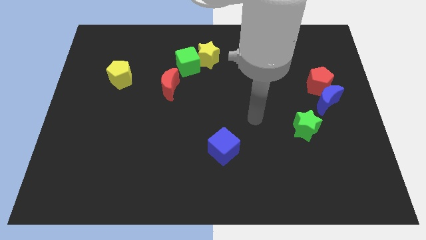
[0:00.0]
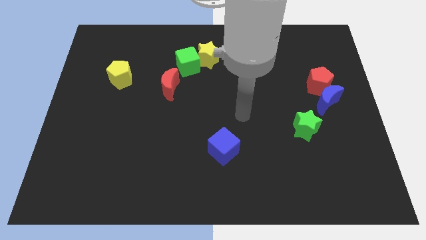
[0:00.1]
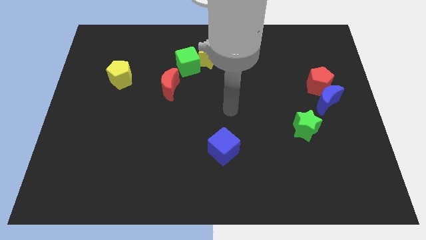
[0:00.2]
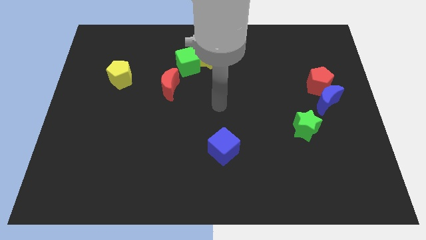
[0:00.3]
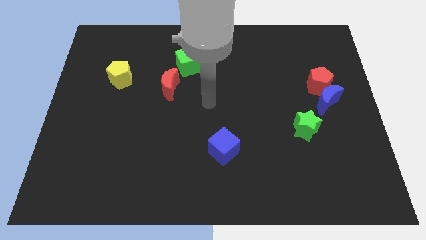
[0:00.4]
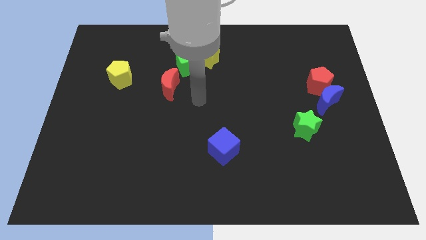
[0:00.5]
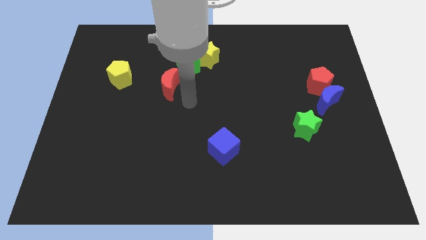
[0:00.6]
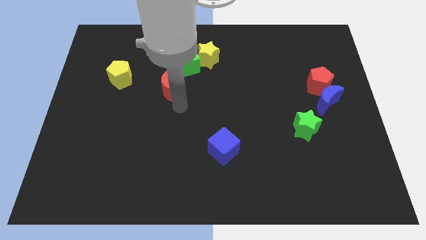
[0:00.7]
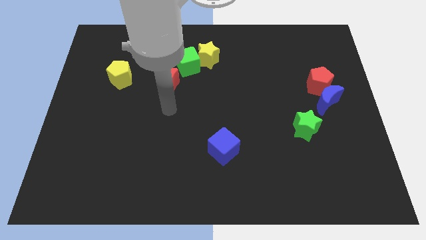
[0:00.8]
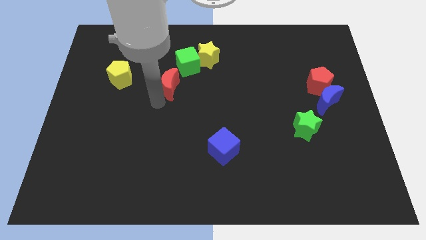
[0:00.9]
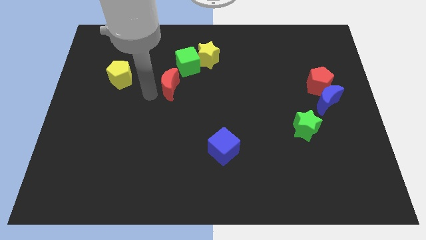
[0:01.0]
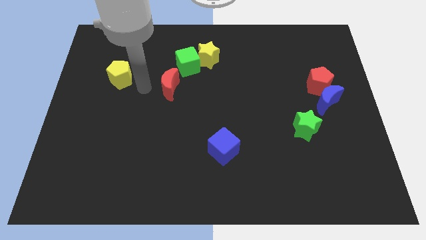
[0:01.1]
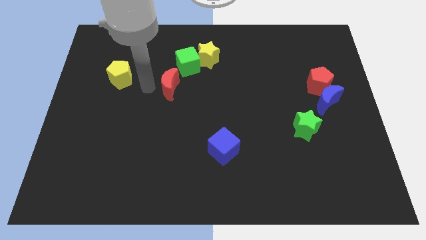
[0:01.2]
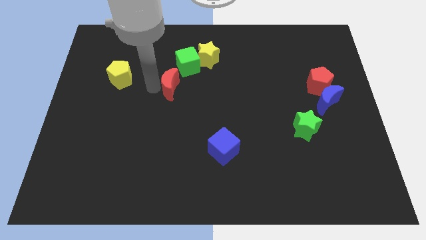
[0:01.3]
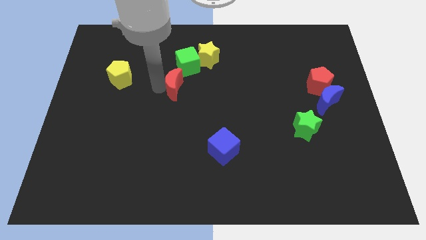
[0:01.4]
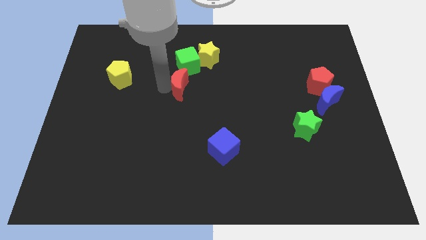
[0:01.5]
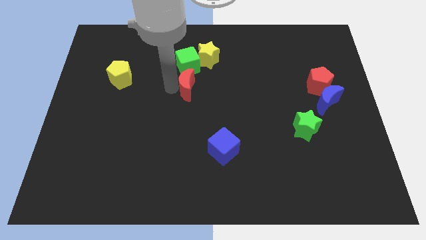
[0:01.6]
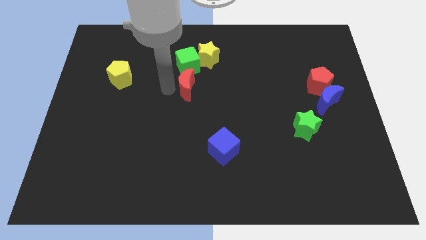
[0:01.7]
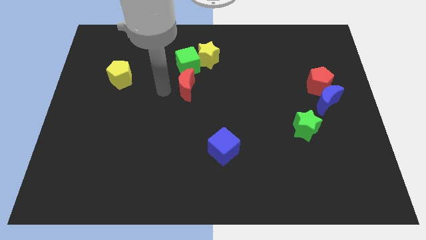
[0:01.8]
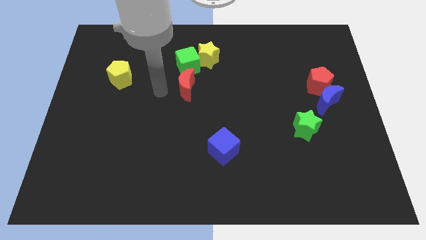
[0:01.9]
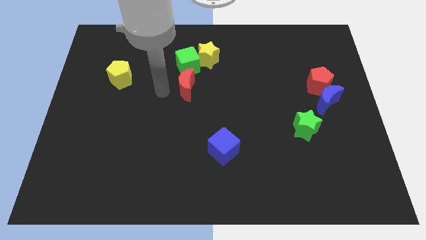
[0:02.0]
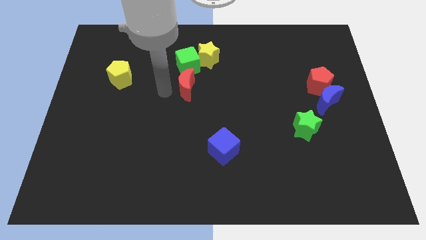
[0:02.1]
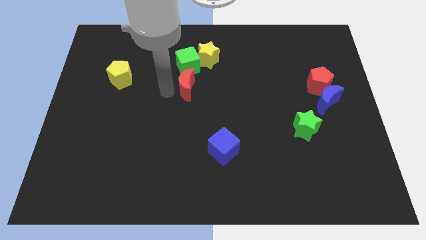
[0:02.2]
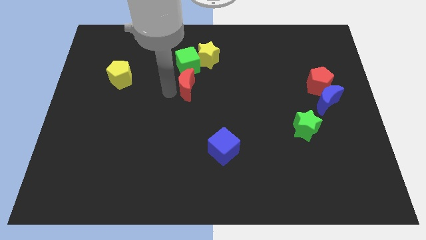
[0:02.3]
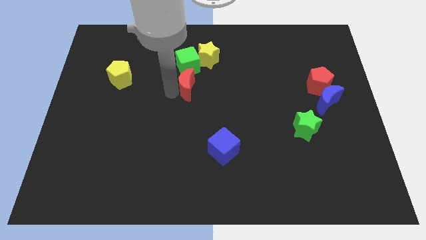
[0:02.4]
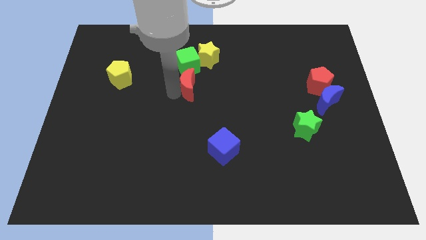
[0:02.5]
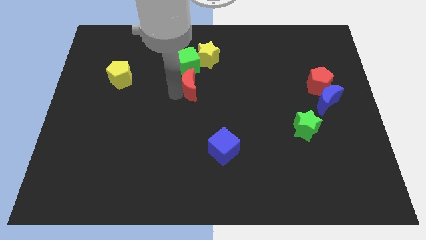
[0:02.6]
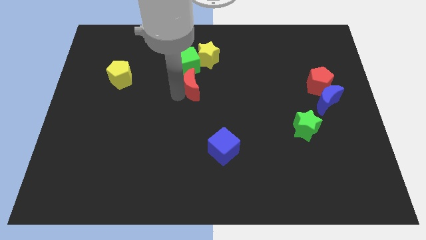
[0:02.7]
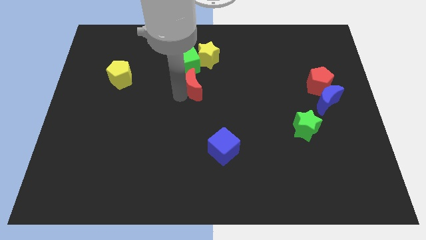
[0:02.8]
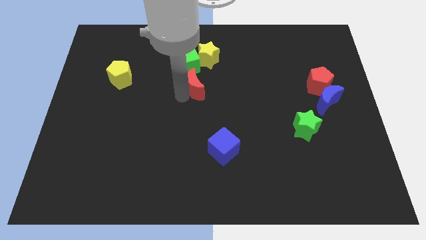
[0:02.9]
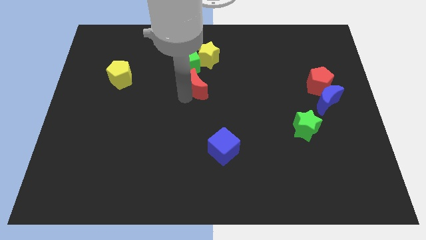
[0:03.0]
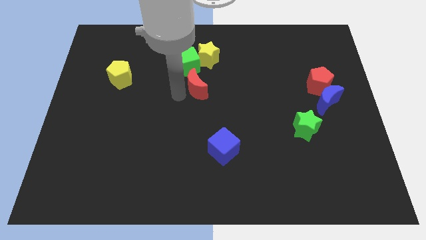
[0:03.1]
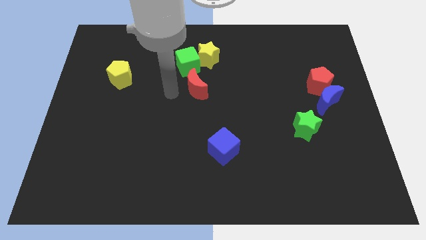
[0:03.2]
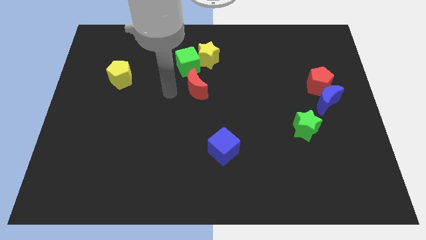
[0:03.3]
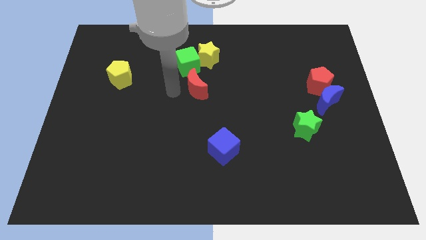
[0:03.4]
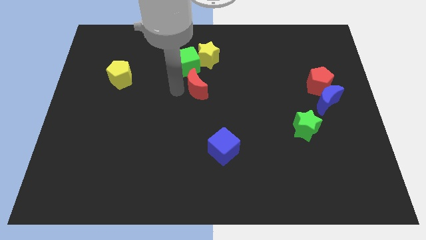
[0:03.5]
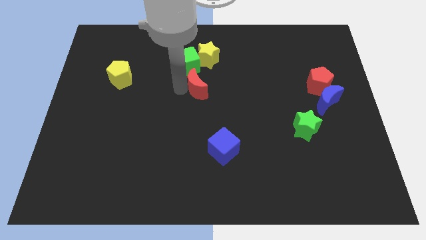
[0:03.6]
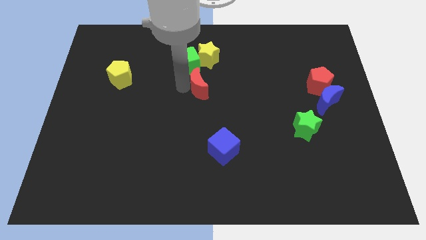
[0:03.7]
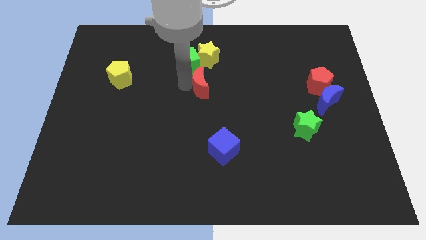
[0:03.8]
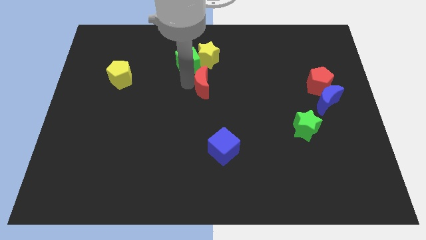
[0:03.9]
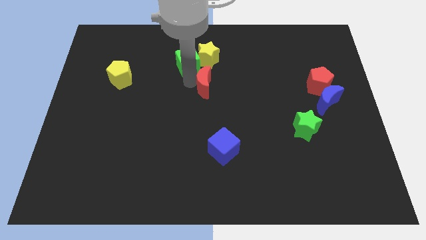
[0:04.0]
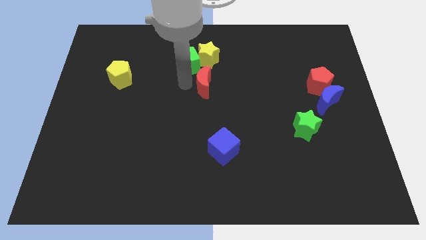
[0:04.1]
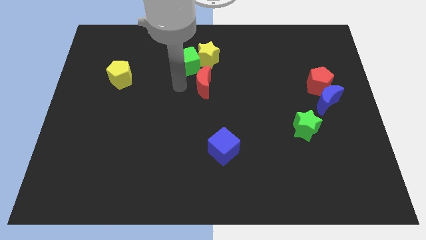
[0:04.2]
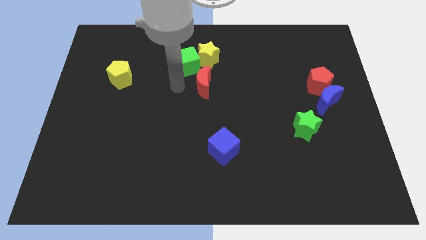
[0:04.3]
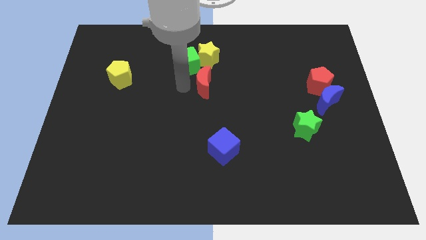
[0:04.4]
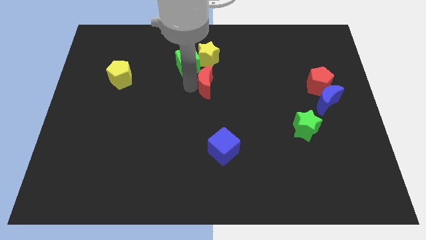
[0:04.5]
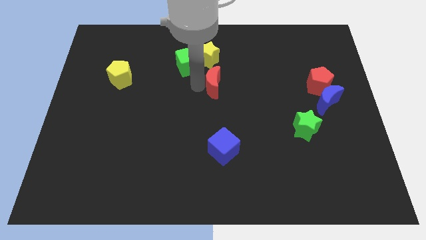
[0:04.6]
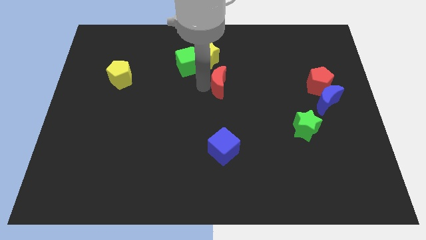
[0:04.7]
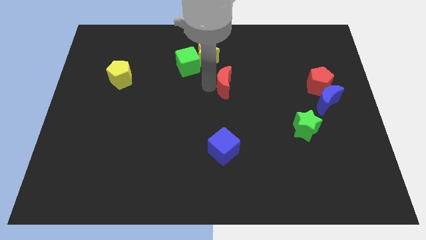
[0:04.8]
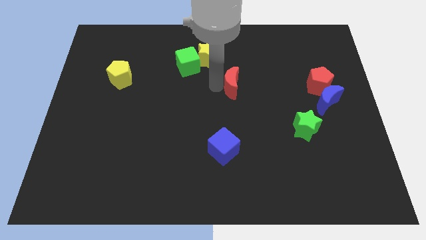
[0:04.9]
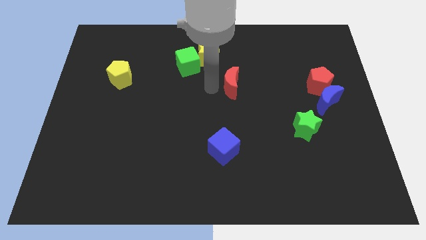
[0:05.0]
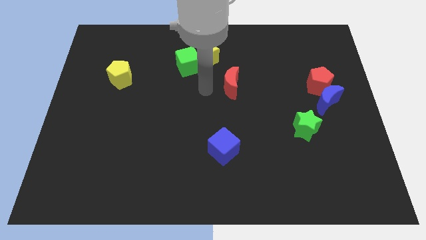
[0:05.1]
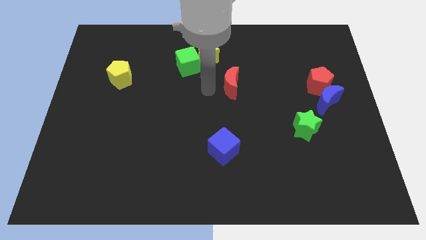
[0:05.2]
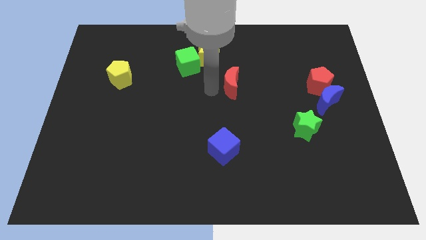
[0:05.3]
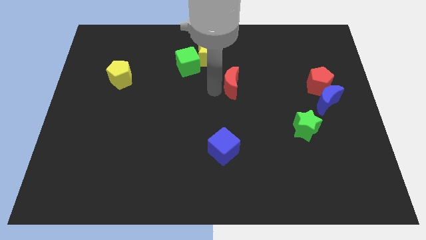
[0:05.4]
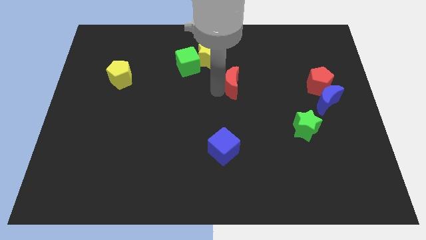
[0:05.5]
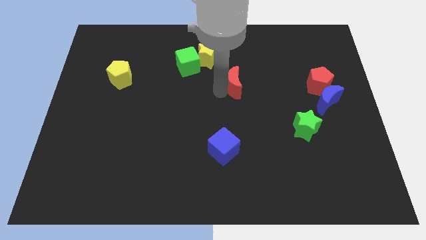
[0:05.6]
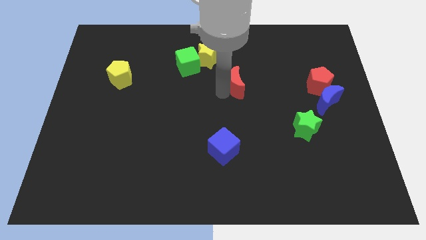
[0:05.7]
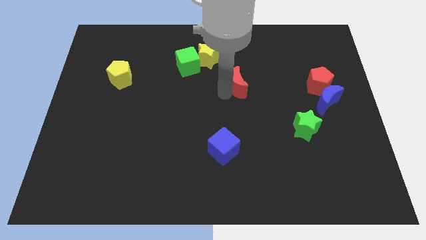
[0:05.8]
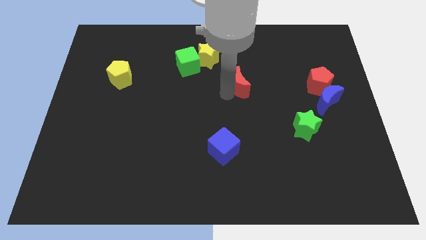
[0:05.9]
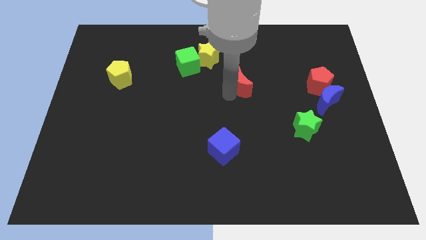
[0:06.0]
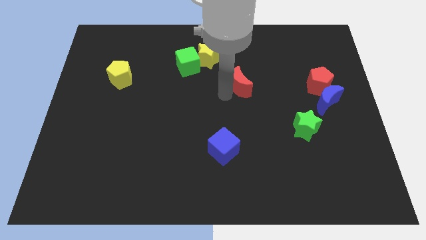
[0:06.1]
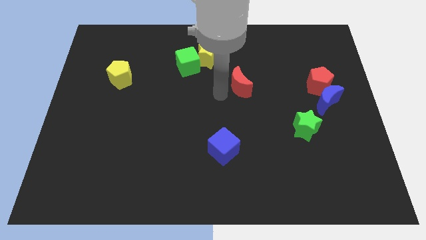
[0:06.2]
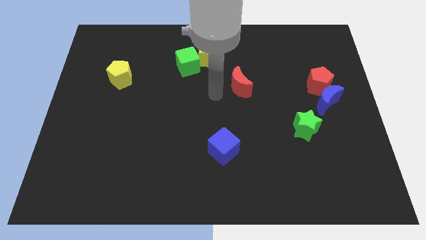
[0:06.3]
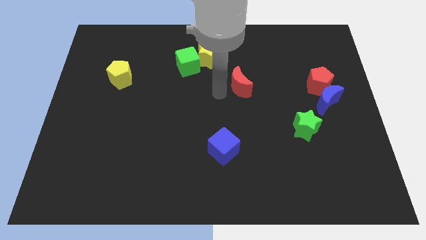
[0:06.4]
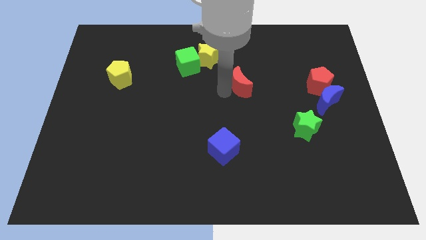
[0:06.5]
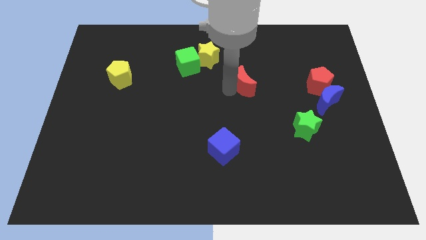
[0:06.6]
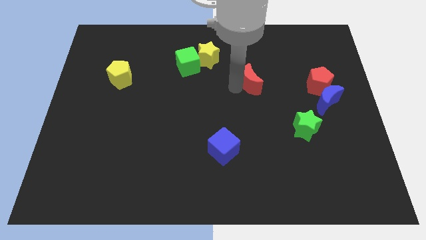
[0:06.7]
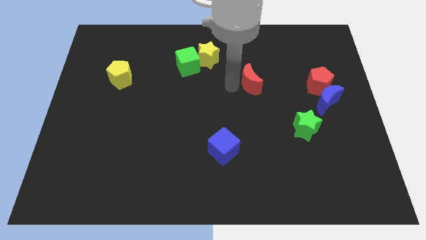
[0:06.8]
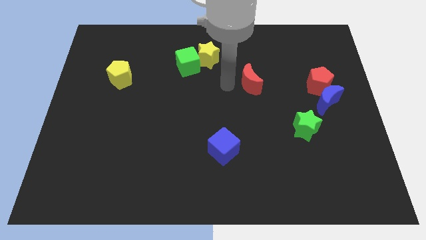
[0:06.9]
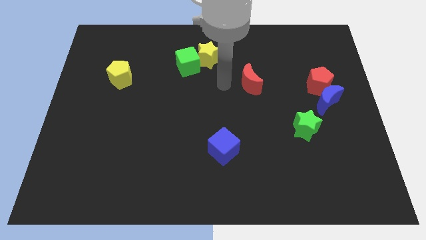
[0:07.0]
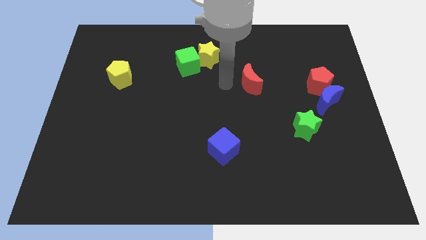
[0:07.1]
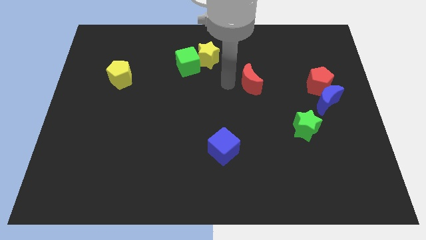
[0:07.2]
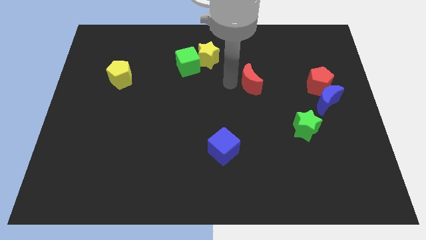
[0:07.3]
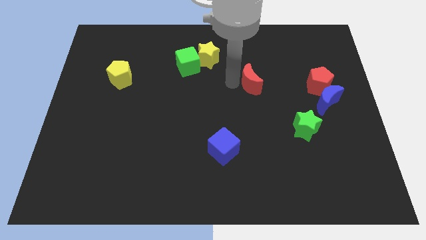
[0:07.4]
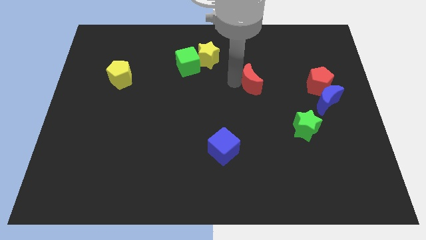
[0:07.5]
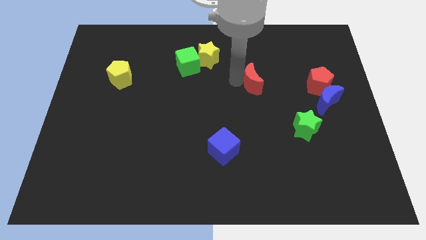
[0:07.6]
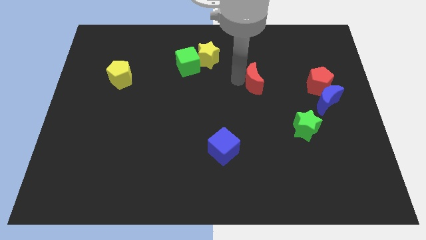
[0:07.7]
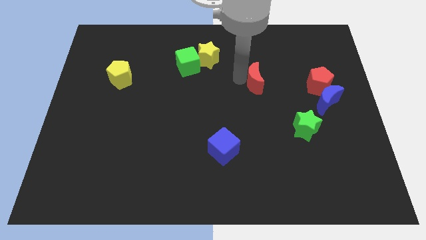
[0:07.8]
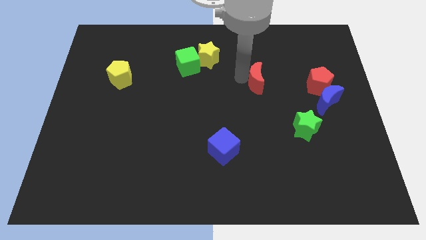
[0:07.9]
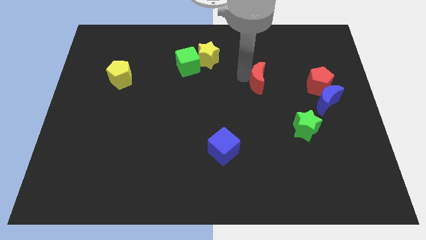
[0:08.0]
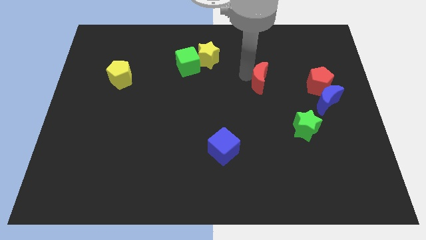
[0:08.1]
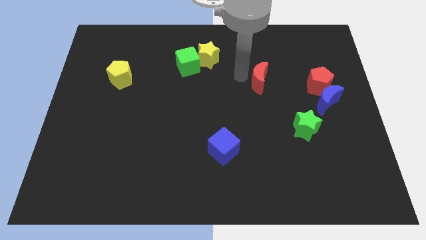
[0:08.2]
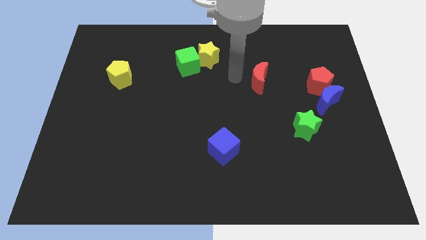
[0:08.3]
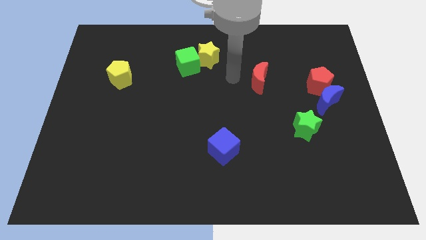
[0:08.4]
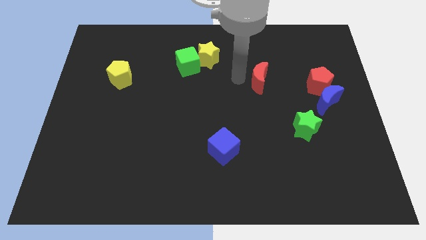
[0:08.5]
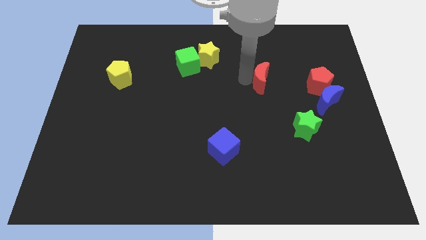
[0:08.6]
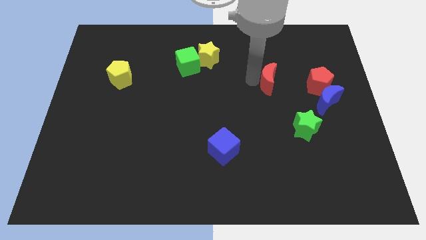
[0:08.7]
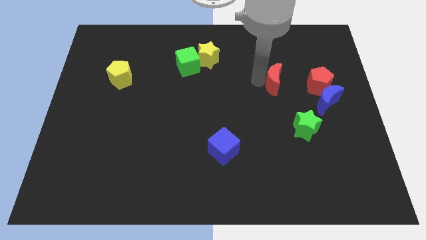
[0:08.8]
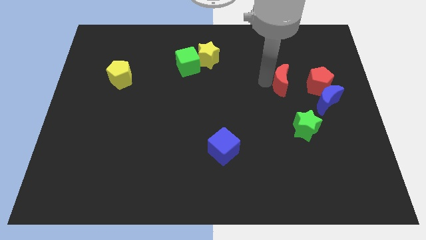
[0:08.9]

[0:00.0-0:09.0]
push the red moon to the top left side of the blue moon
